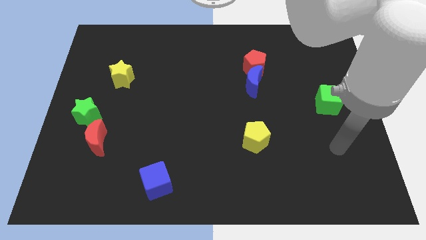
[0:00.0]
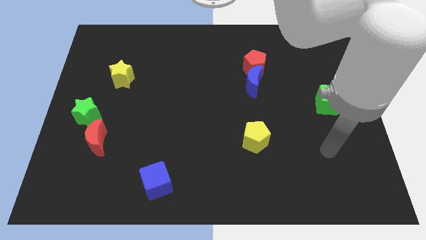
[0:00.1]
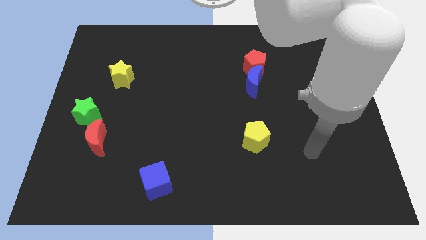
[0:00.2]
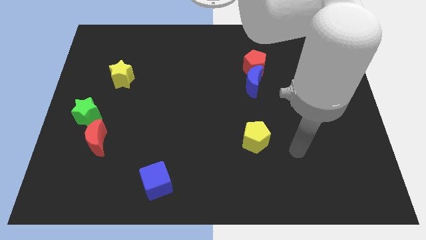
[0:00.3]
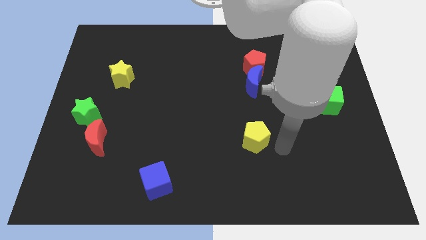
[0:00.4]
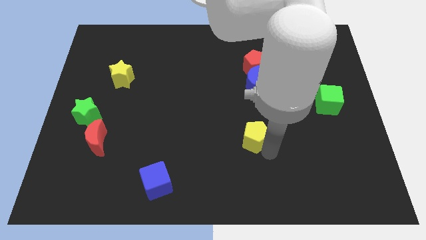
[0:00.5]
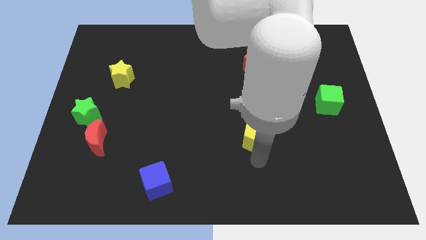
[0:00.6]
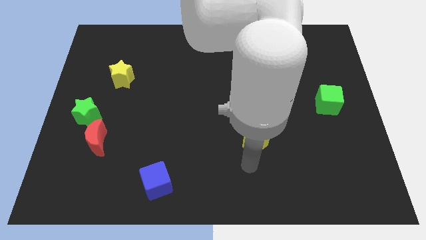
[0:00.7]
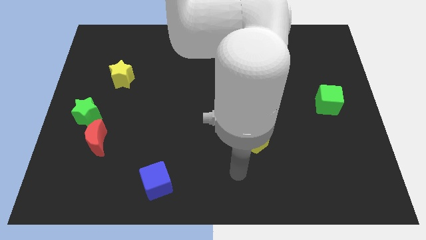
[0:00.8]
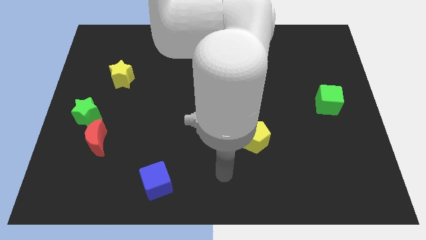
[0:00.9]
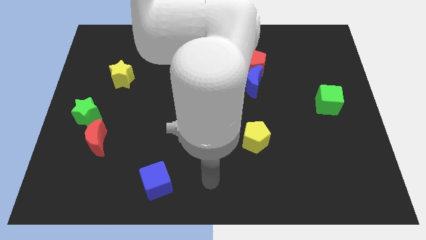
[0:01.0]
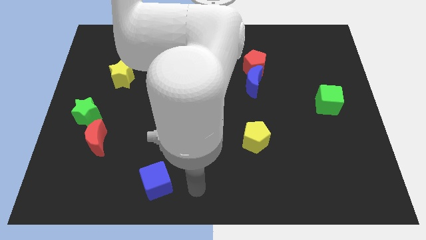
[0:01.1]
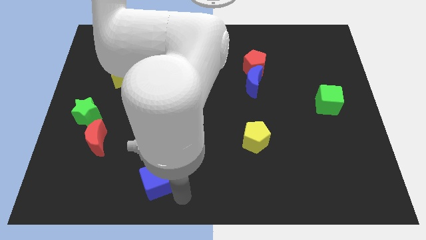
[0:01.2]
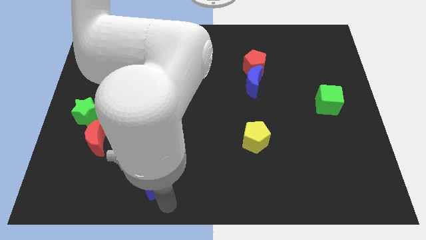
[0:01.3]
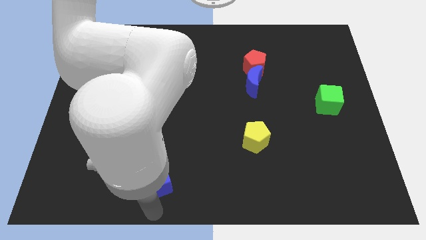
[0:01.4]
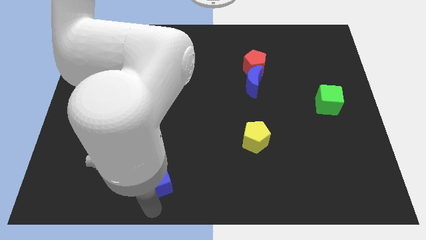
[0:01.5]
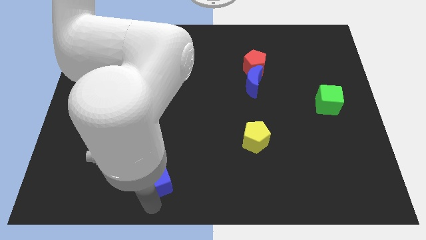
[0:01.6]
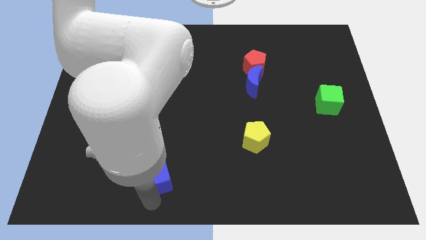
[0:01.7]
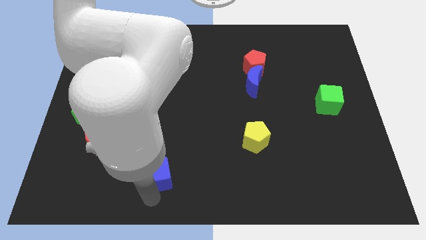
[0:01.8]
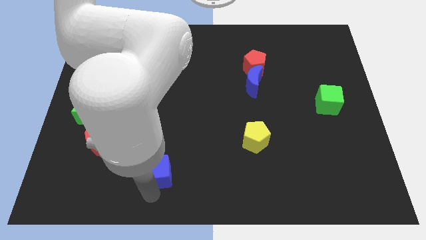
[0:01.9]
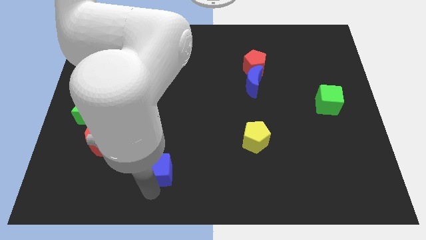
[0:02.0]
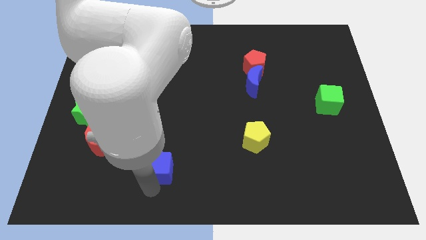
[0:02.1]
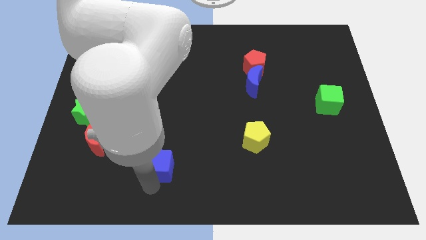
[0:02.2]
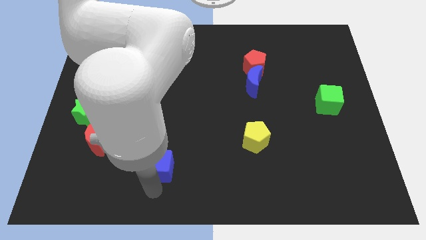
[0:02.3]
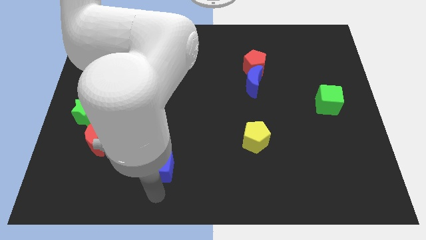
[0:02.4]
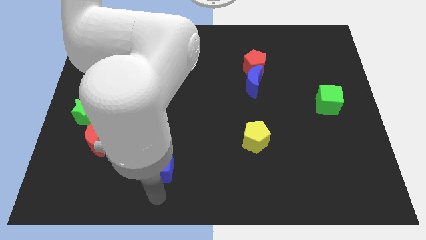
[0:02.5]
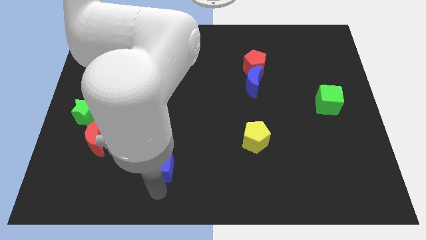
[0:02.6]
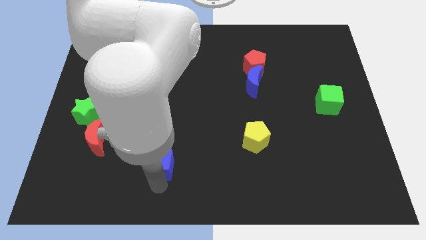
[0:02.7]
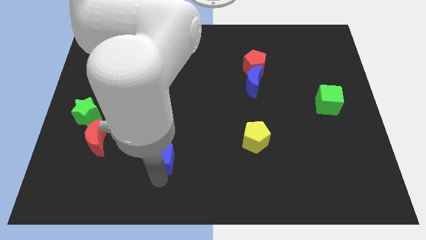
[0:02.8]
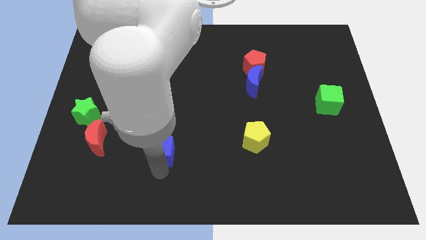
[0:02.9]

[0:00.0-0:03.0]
push the blue cube somewhat upwards

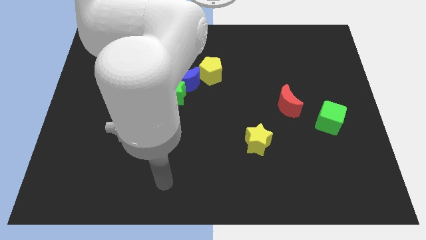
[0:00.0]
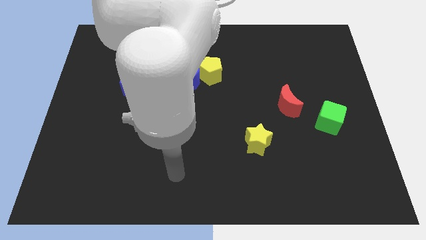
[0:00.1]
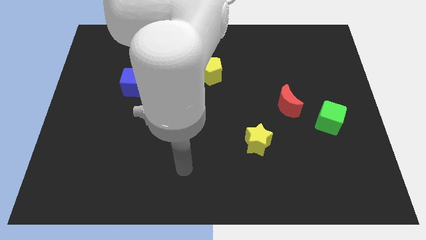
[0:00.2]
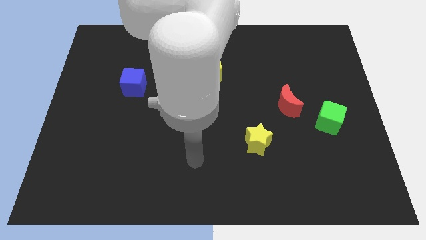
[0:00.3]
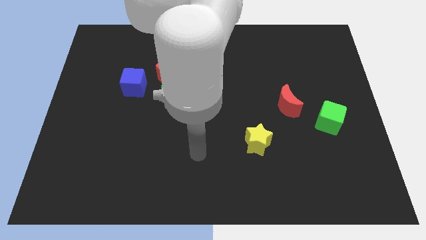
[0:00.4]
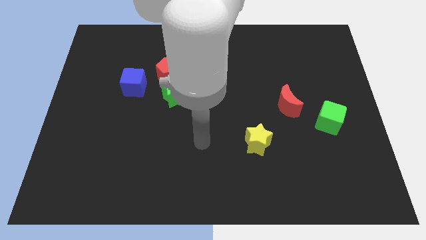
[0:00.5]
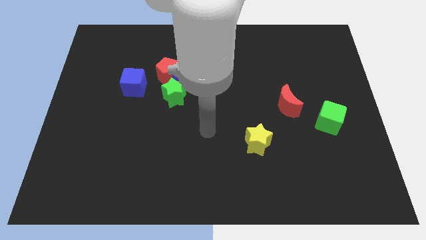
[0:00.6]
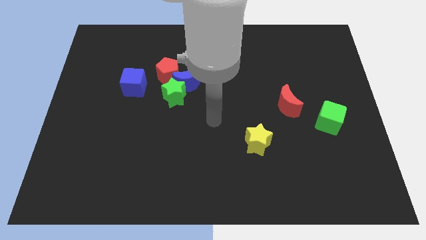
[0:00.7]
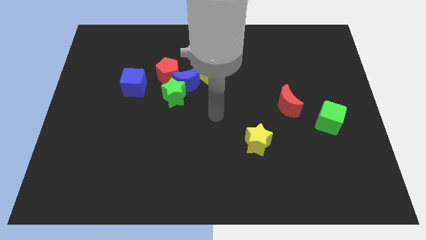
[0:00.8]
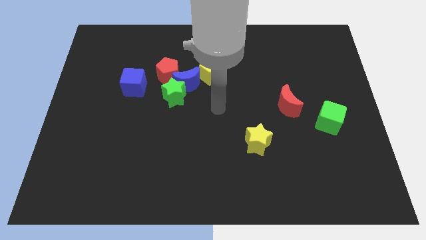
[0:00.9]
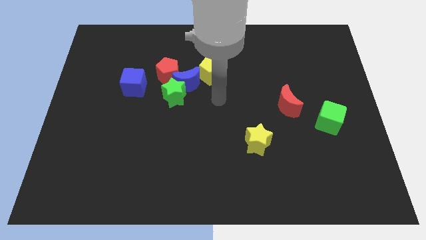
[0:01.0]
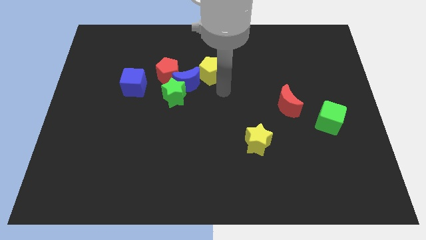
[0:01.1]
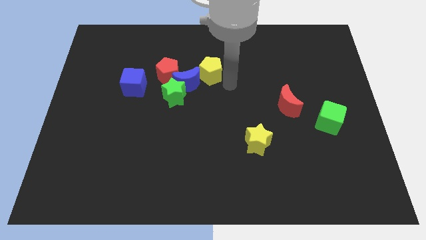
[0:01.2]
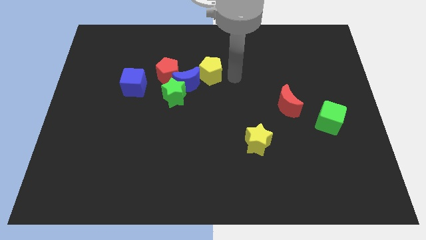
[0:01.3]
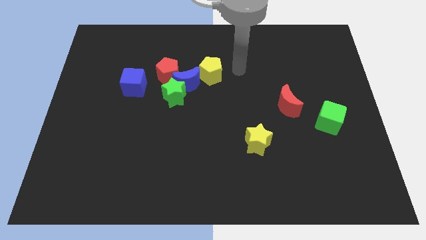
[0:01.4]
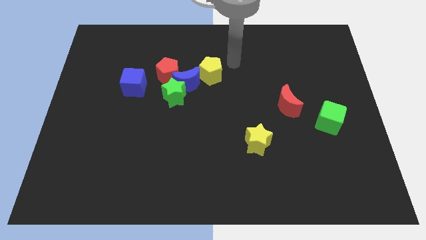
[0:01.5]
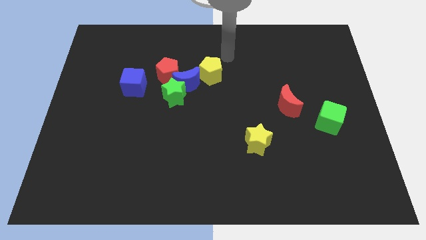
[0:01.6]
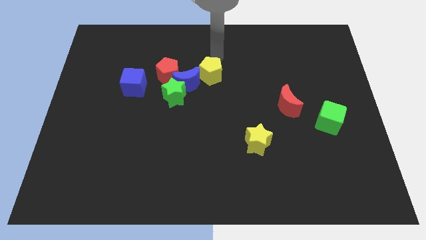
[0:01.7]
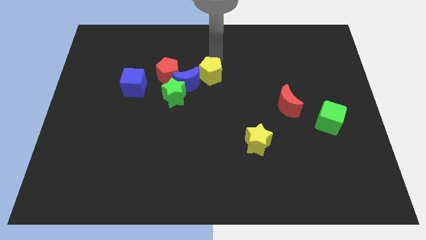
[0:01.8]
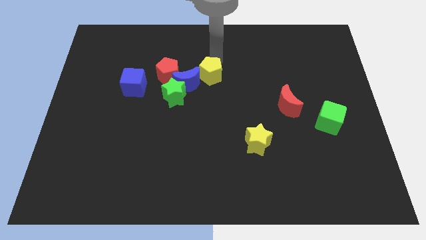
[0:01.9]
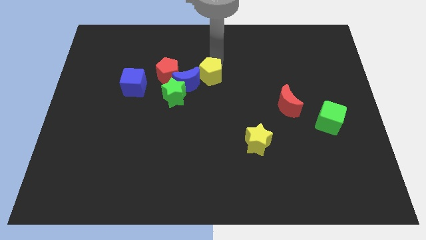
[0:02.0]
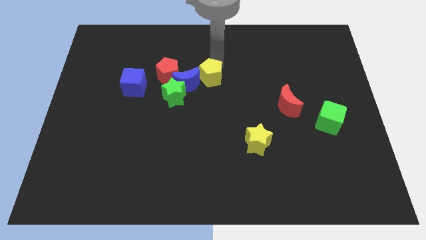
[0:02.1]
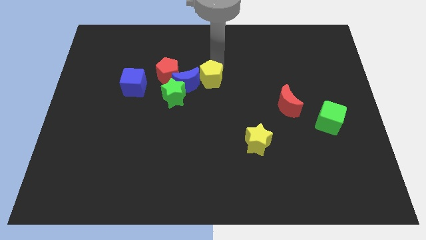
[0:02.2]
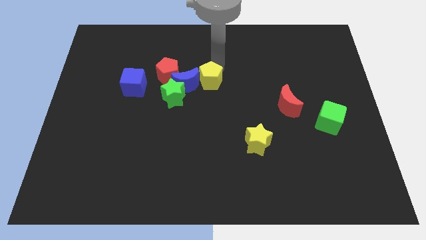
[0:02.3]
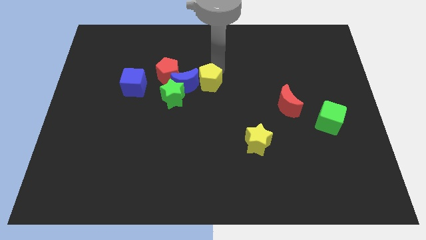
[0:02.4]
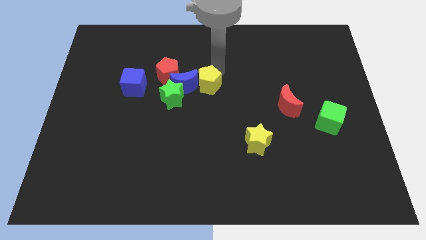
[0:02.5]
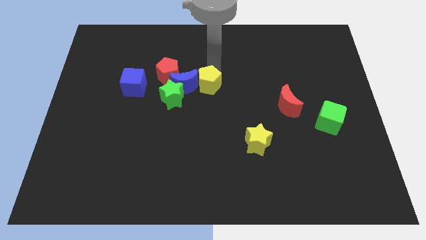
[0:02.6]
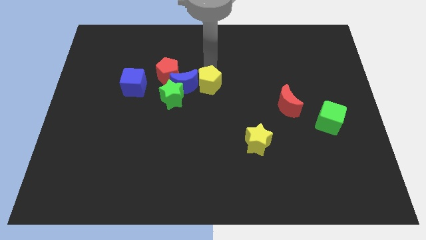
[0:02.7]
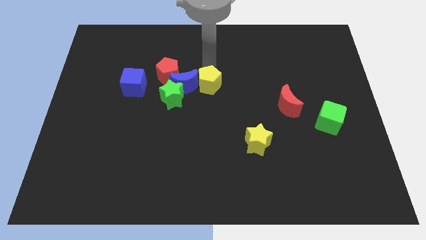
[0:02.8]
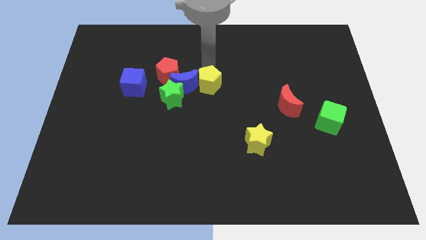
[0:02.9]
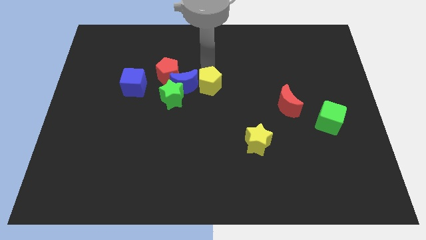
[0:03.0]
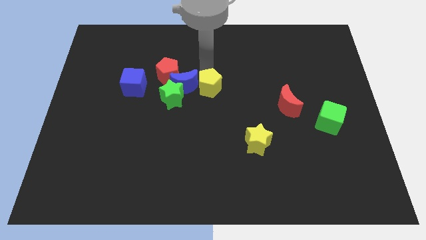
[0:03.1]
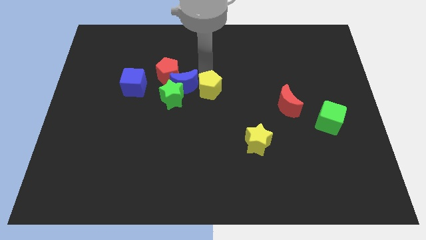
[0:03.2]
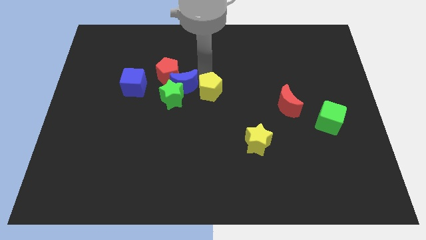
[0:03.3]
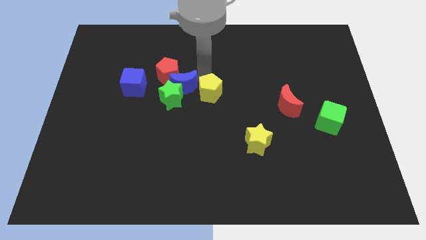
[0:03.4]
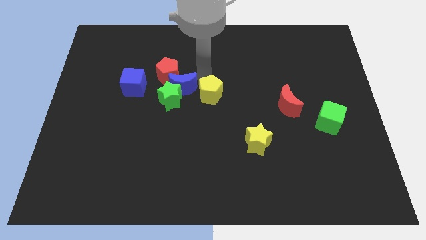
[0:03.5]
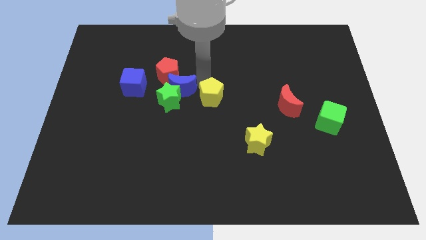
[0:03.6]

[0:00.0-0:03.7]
slightly move the yellow pentagon down

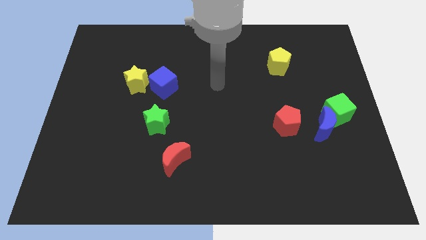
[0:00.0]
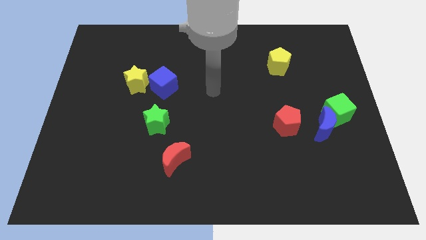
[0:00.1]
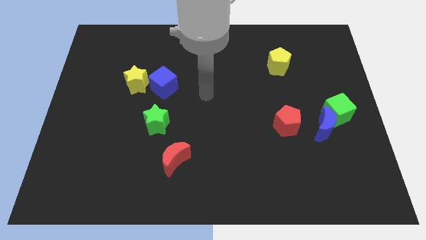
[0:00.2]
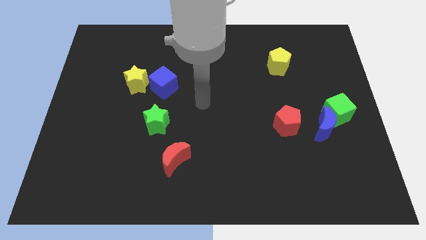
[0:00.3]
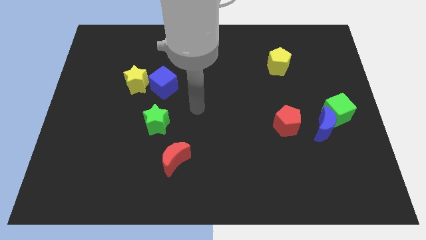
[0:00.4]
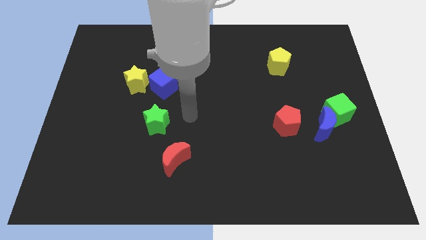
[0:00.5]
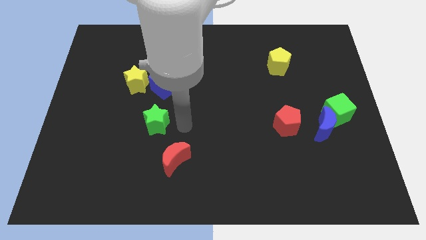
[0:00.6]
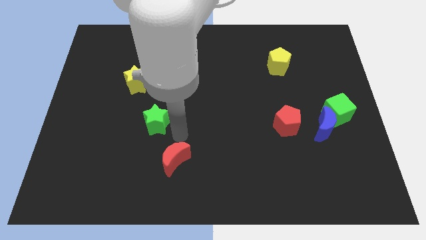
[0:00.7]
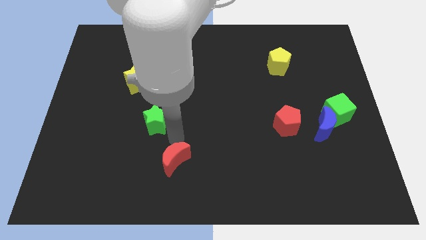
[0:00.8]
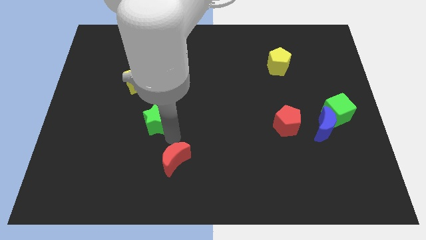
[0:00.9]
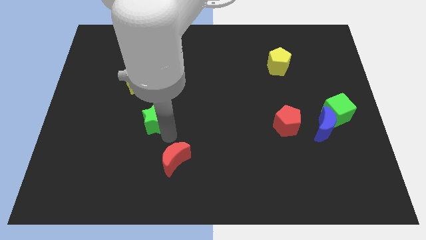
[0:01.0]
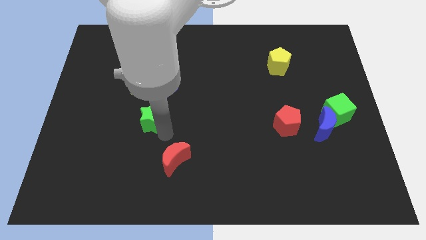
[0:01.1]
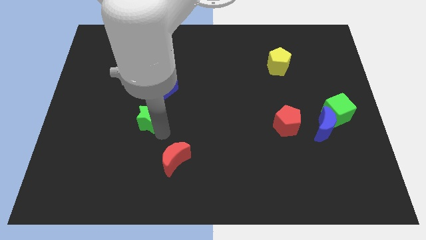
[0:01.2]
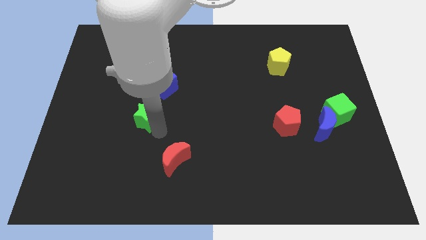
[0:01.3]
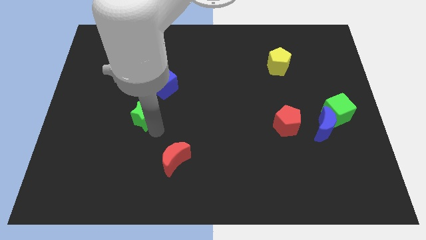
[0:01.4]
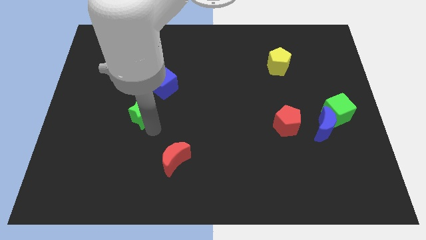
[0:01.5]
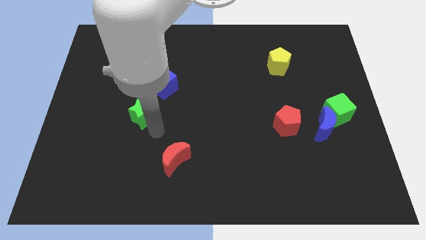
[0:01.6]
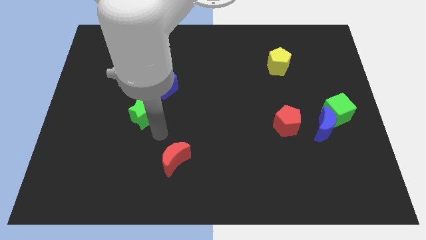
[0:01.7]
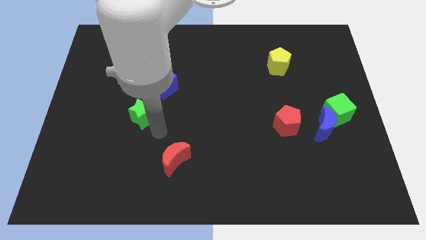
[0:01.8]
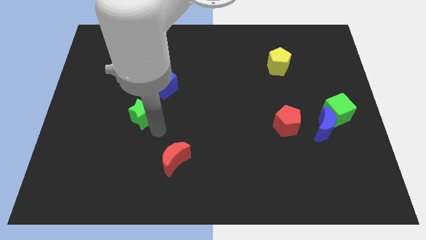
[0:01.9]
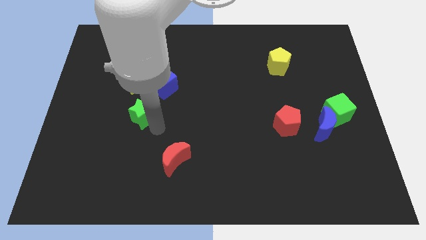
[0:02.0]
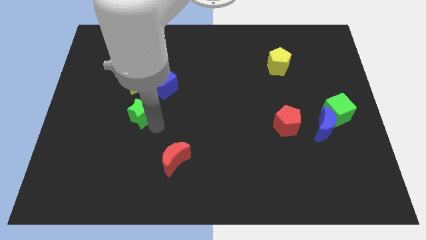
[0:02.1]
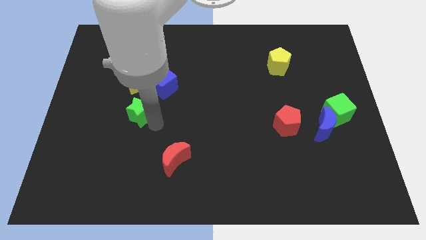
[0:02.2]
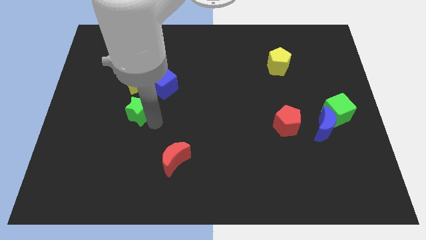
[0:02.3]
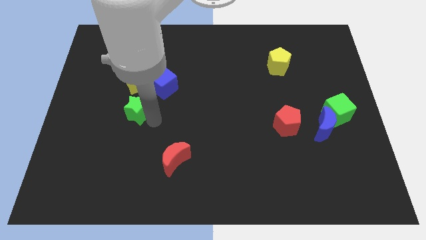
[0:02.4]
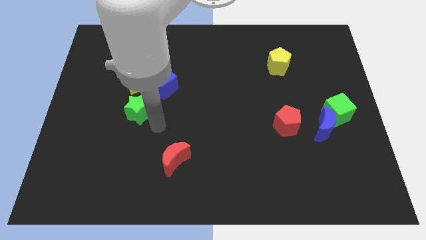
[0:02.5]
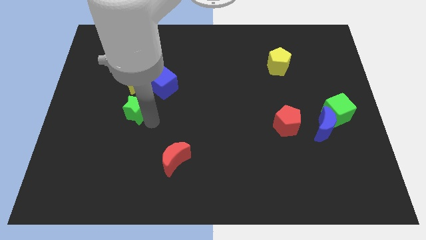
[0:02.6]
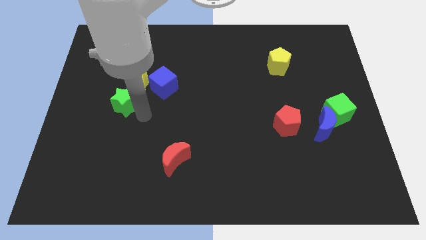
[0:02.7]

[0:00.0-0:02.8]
slide the green star a little bit diagonally upwards and left
